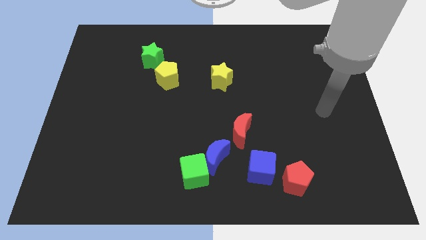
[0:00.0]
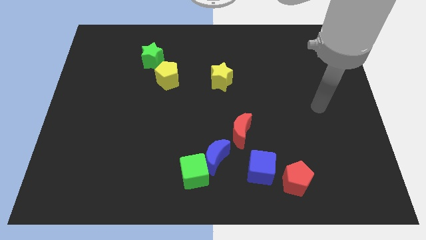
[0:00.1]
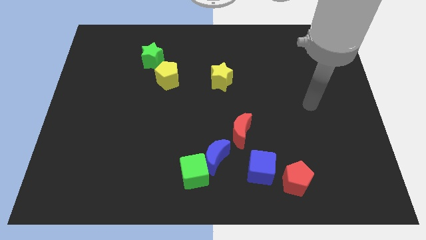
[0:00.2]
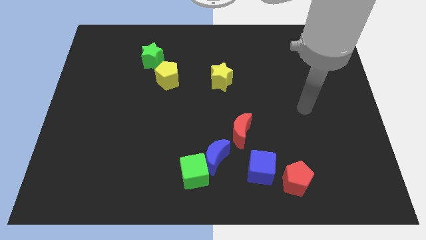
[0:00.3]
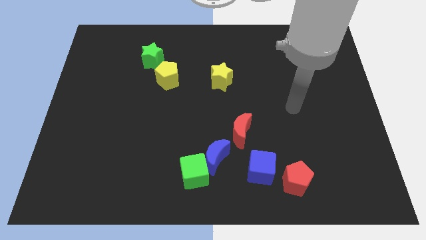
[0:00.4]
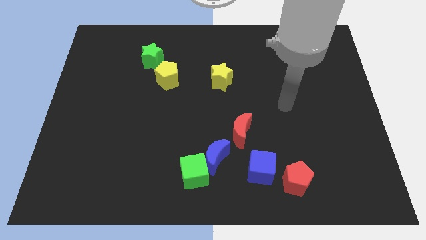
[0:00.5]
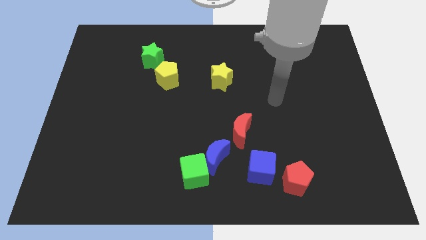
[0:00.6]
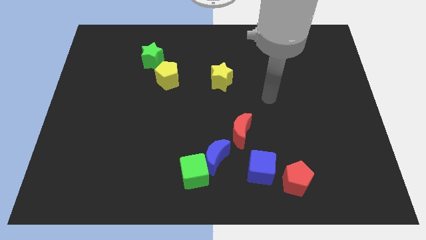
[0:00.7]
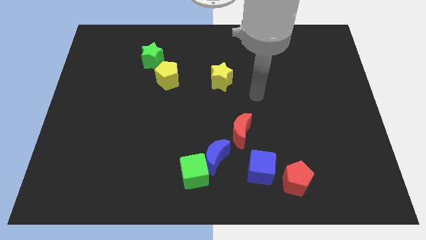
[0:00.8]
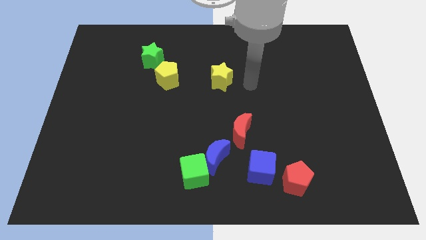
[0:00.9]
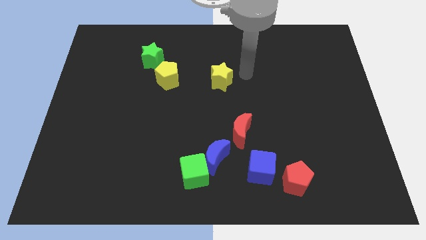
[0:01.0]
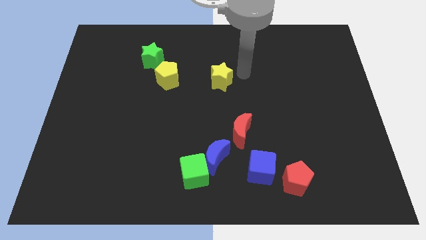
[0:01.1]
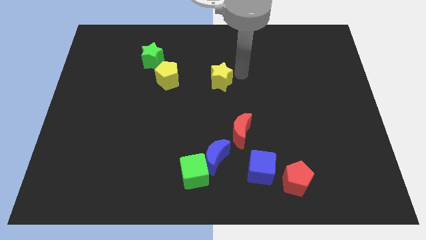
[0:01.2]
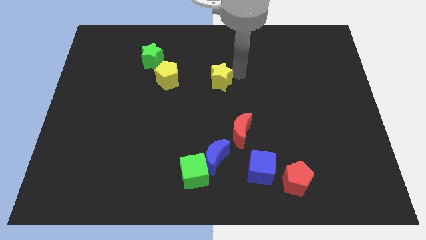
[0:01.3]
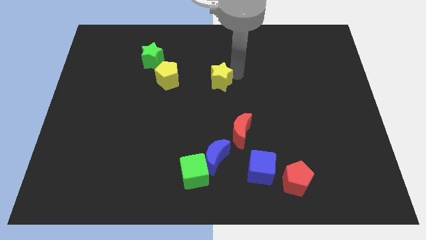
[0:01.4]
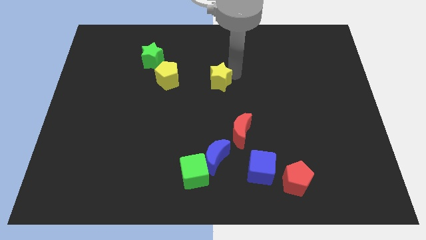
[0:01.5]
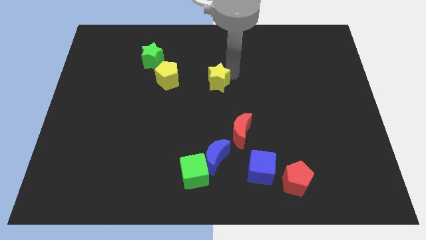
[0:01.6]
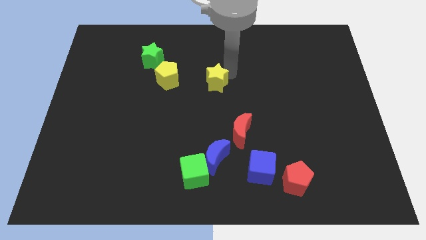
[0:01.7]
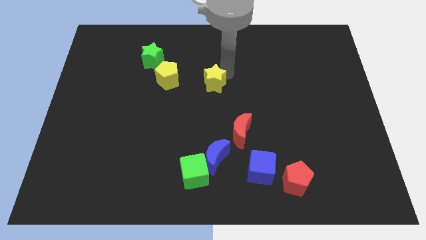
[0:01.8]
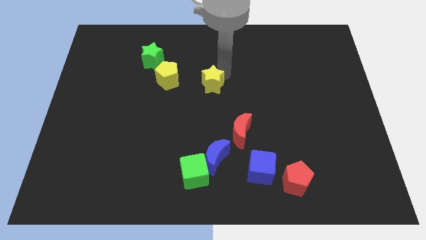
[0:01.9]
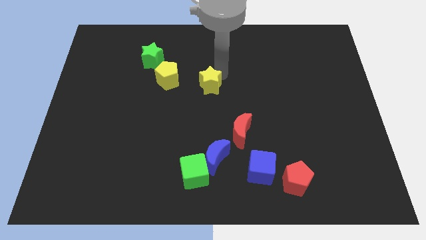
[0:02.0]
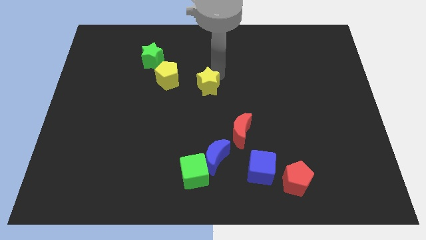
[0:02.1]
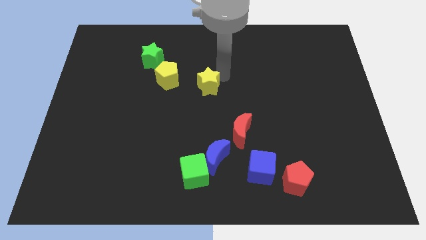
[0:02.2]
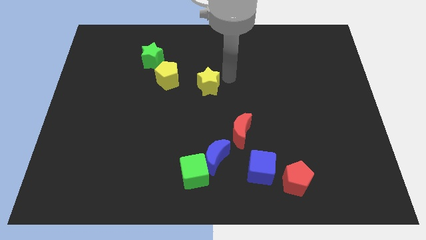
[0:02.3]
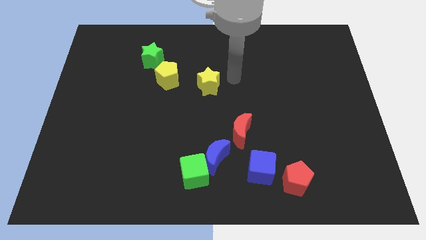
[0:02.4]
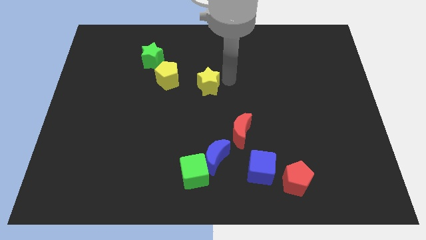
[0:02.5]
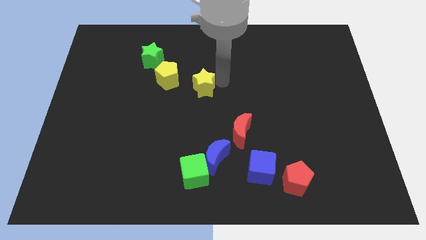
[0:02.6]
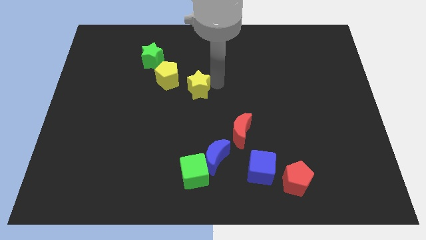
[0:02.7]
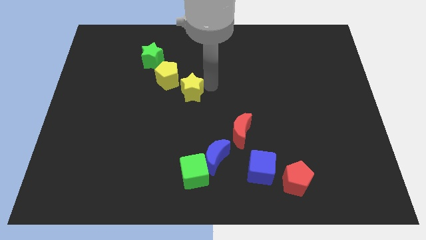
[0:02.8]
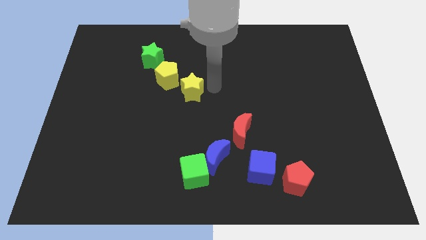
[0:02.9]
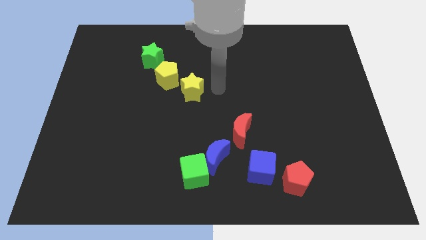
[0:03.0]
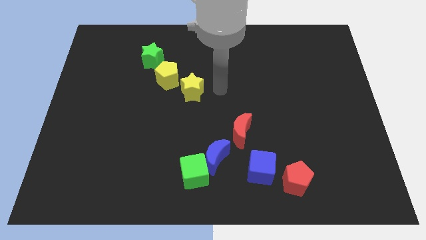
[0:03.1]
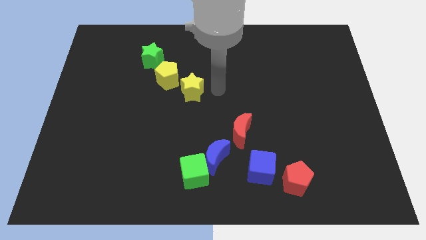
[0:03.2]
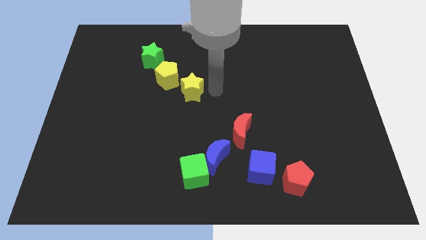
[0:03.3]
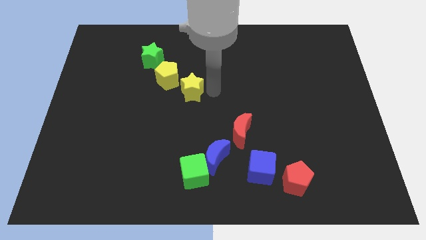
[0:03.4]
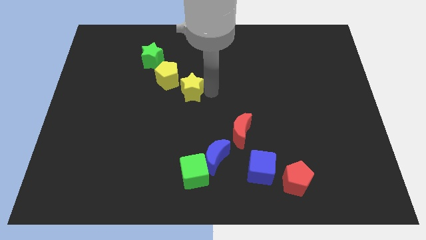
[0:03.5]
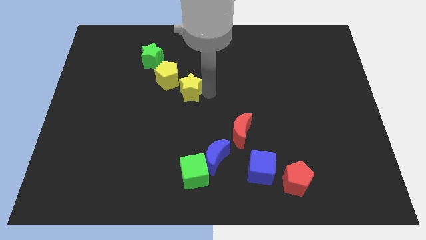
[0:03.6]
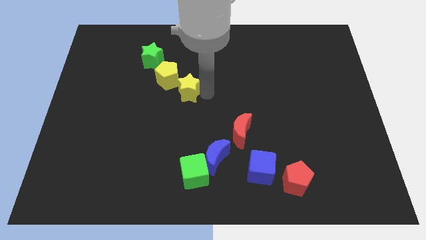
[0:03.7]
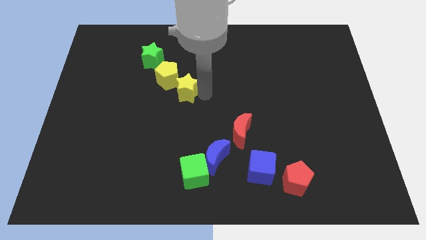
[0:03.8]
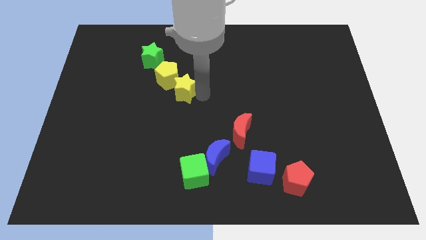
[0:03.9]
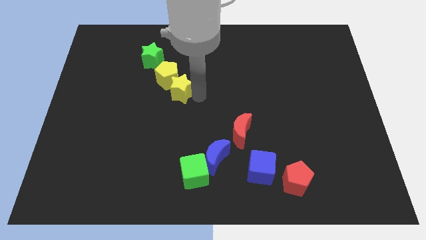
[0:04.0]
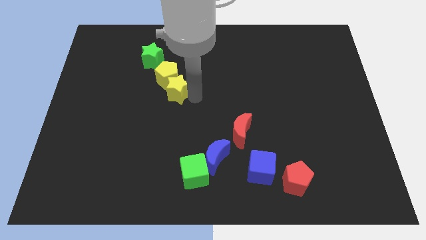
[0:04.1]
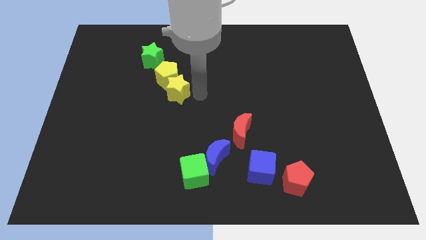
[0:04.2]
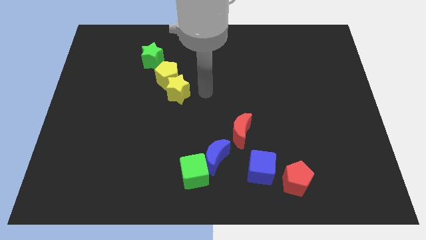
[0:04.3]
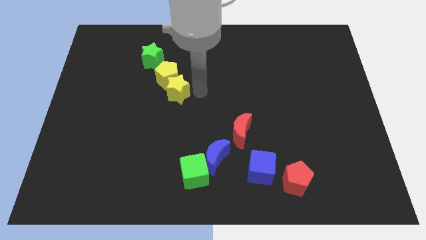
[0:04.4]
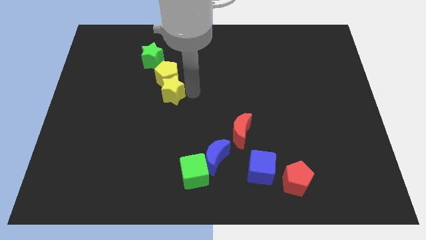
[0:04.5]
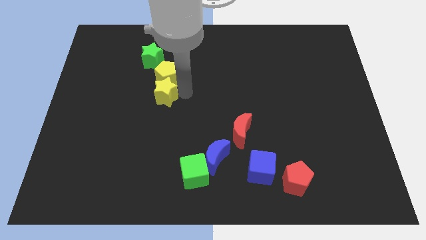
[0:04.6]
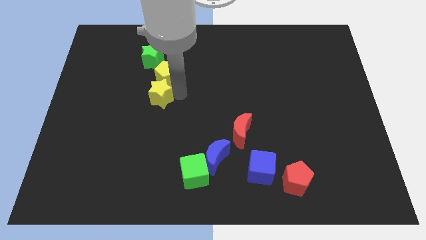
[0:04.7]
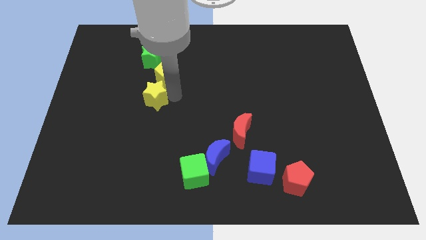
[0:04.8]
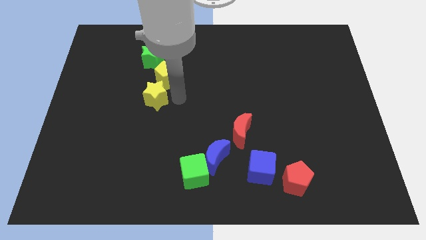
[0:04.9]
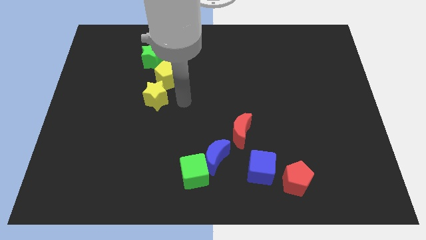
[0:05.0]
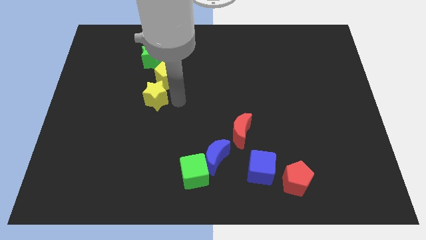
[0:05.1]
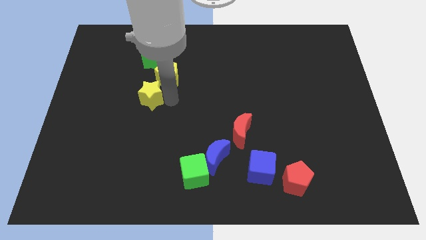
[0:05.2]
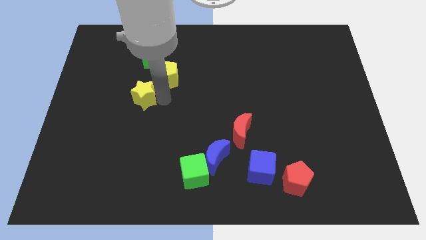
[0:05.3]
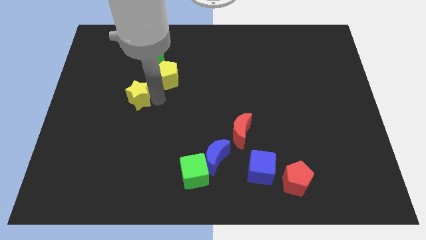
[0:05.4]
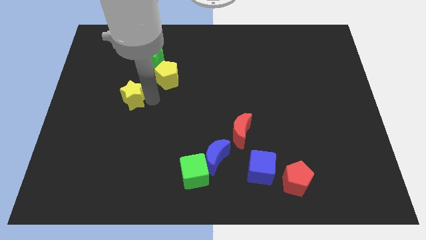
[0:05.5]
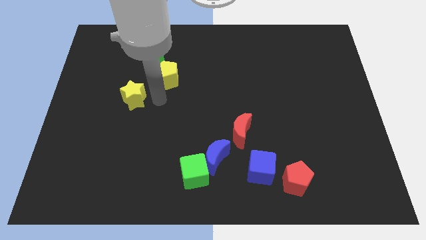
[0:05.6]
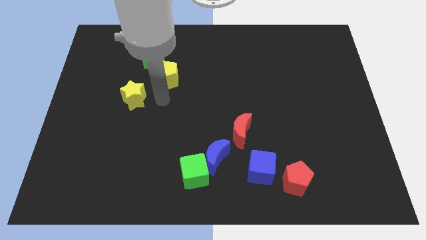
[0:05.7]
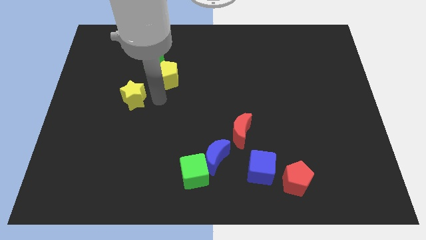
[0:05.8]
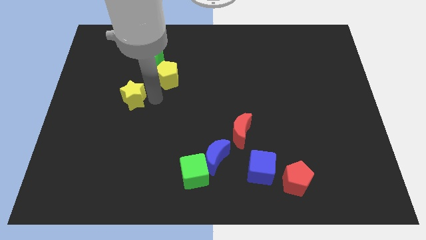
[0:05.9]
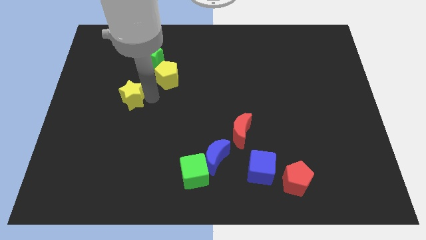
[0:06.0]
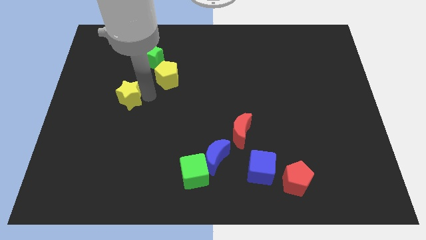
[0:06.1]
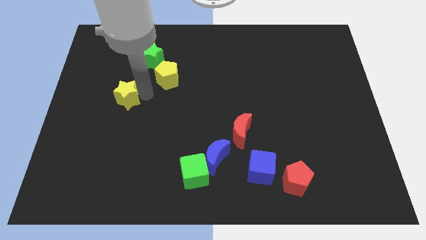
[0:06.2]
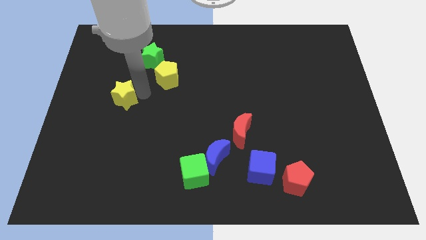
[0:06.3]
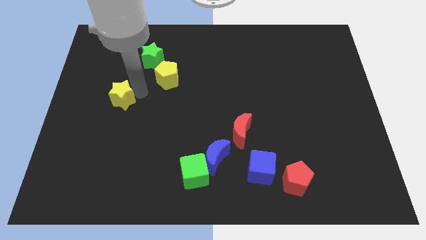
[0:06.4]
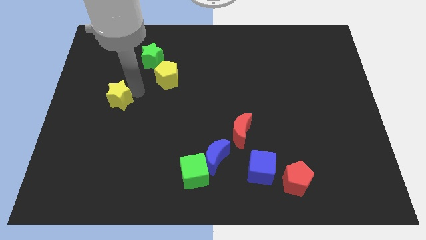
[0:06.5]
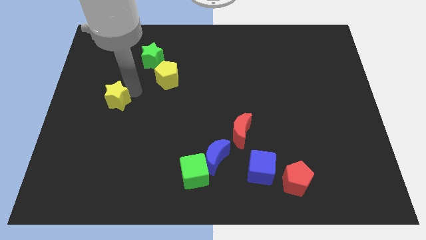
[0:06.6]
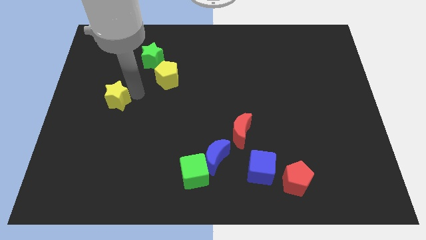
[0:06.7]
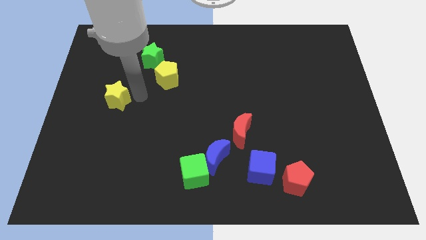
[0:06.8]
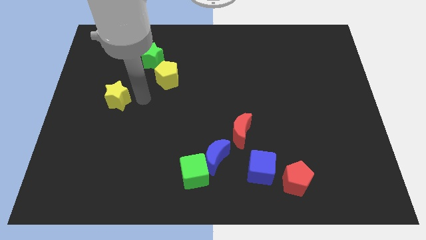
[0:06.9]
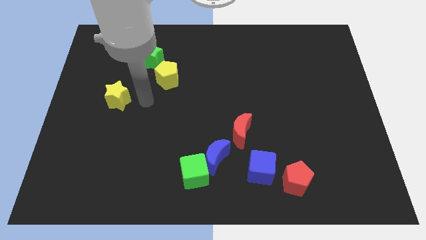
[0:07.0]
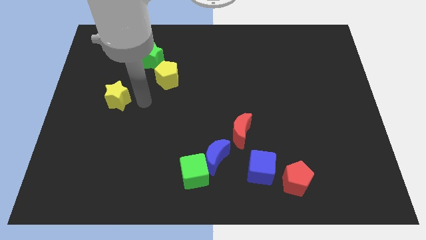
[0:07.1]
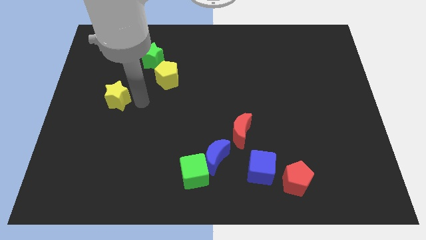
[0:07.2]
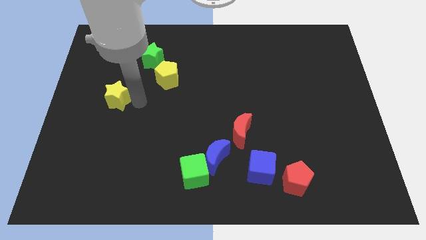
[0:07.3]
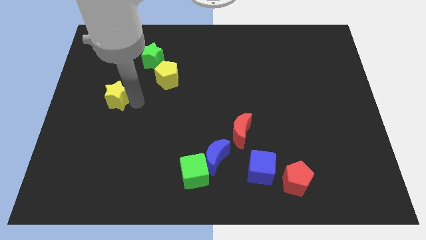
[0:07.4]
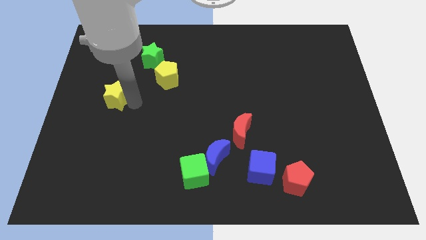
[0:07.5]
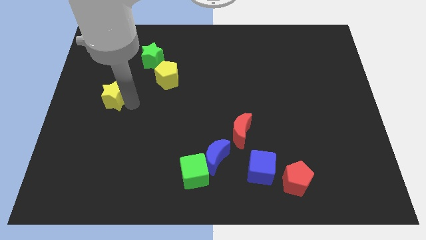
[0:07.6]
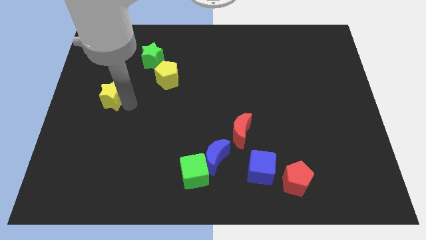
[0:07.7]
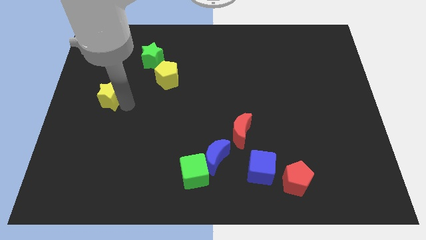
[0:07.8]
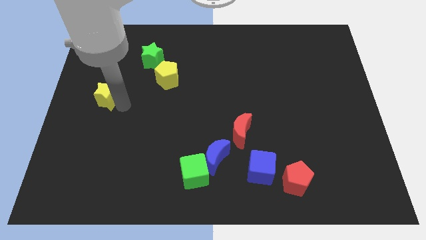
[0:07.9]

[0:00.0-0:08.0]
slide the yellow star to the left side of the board
